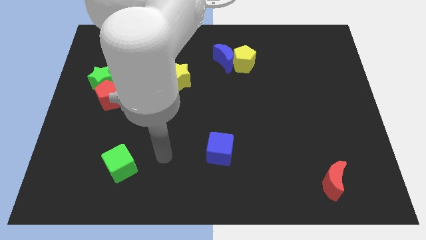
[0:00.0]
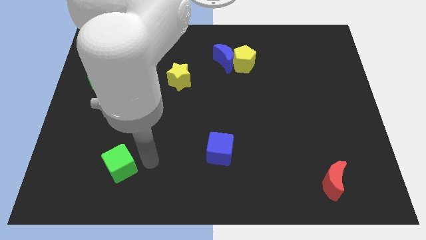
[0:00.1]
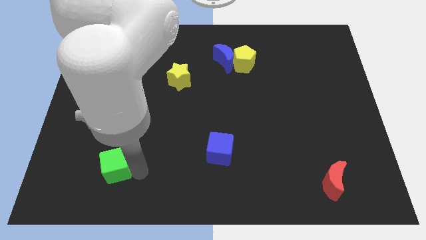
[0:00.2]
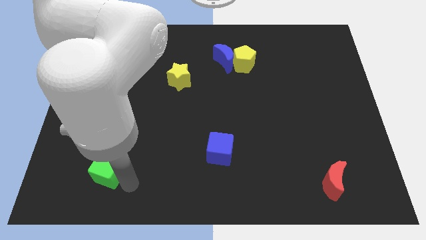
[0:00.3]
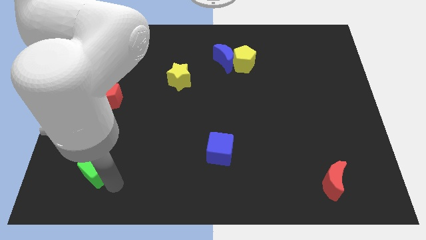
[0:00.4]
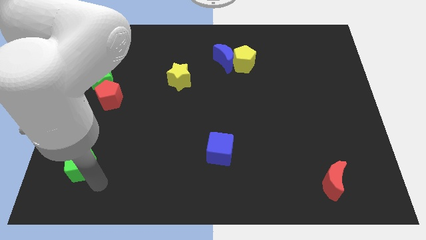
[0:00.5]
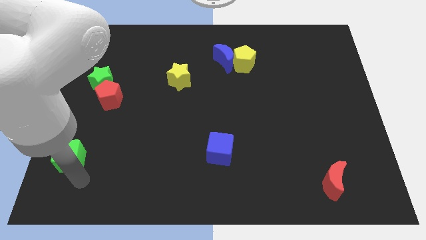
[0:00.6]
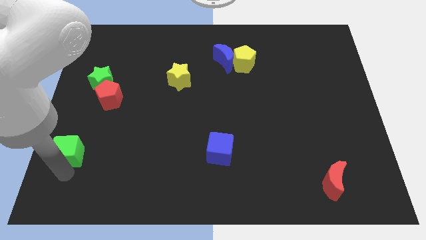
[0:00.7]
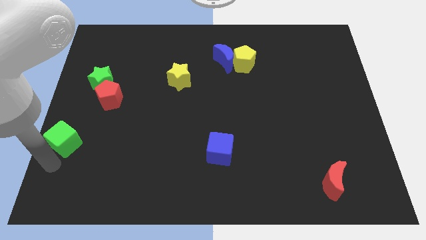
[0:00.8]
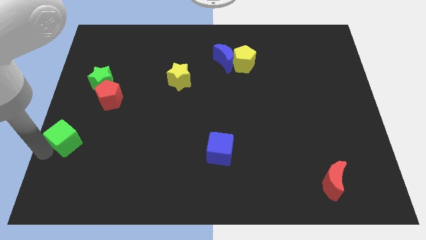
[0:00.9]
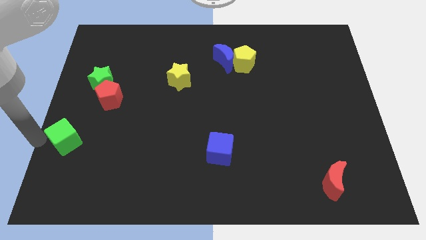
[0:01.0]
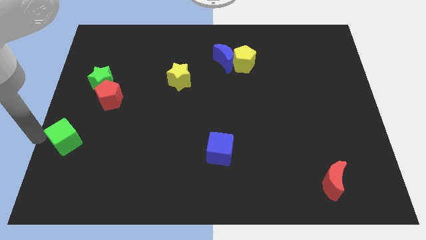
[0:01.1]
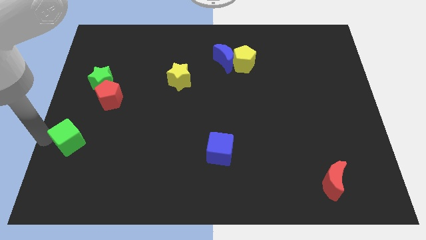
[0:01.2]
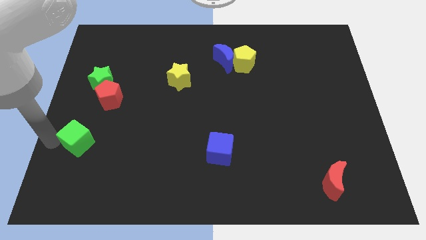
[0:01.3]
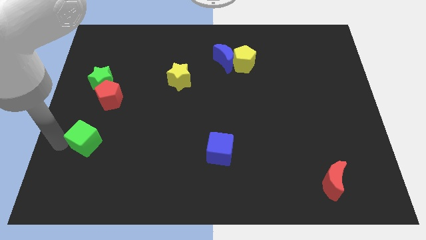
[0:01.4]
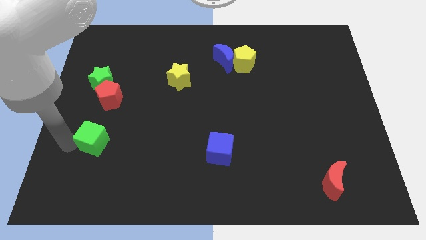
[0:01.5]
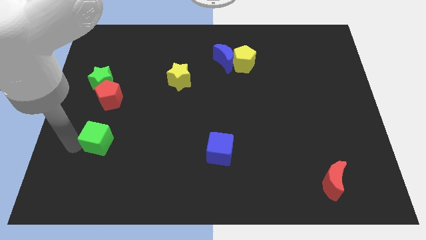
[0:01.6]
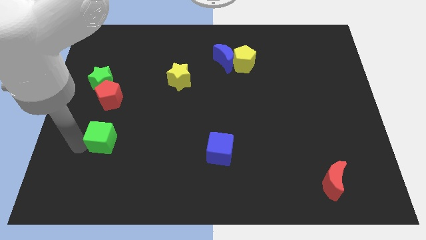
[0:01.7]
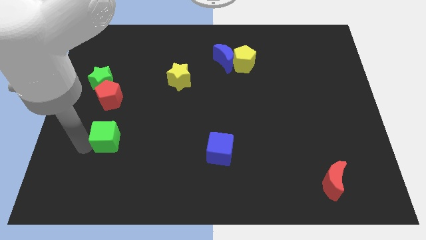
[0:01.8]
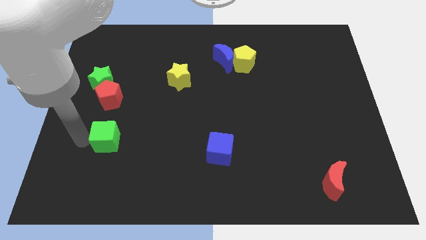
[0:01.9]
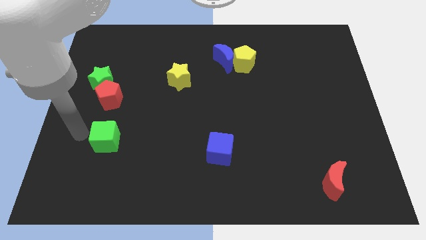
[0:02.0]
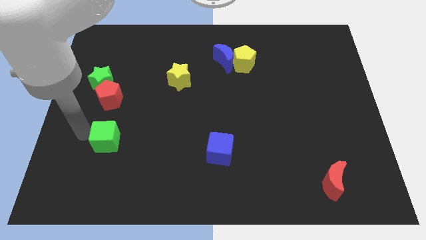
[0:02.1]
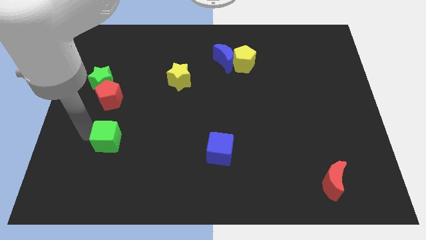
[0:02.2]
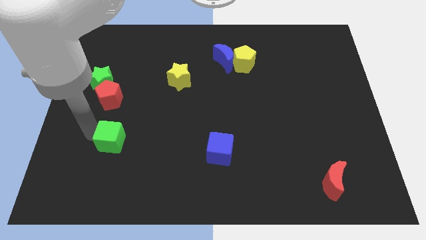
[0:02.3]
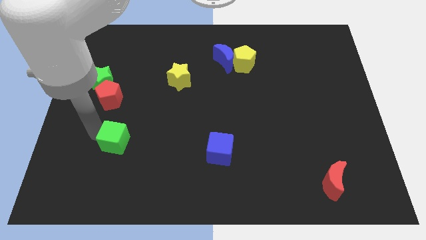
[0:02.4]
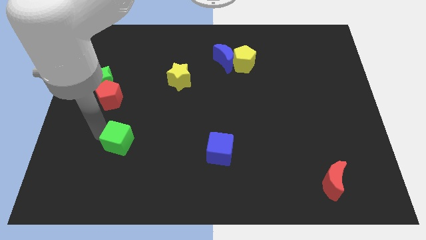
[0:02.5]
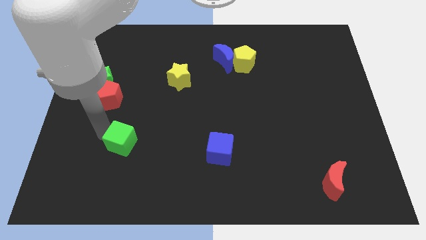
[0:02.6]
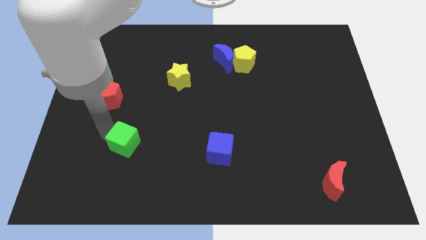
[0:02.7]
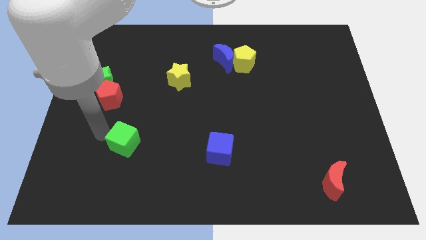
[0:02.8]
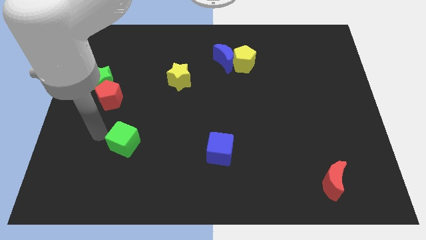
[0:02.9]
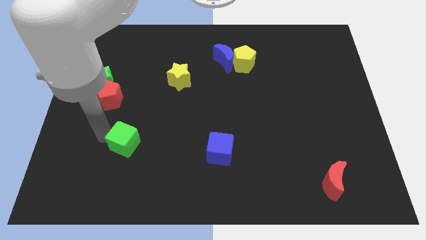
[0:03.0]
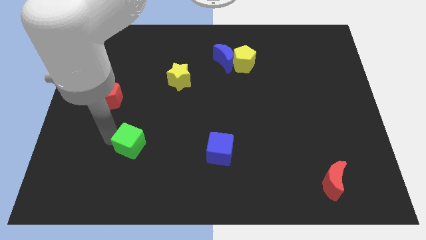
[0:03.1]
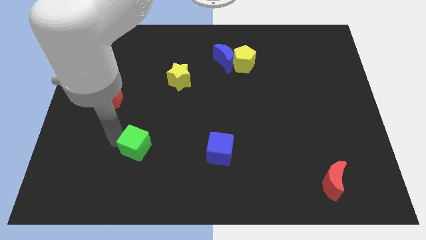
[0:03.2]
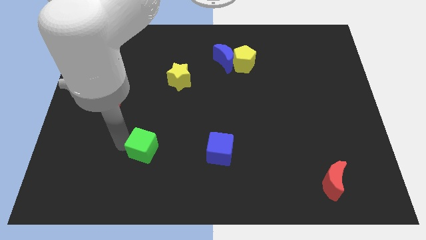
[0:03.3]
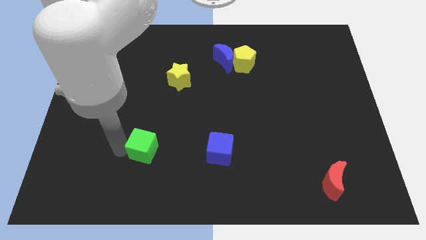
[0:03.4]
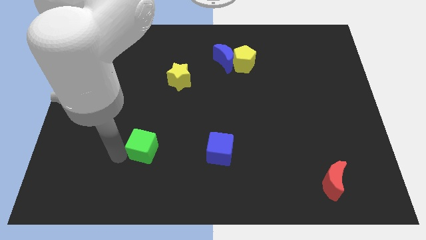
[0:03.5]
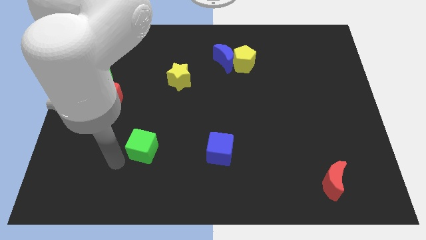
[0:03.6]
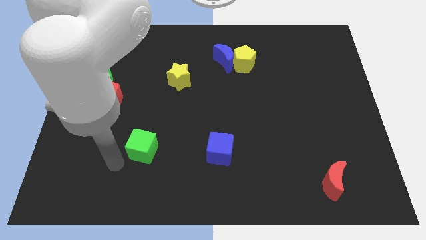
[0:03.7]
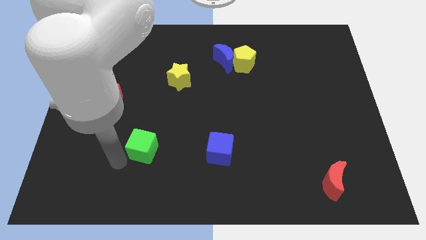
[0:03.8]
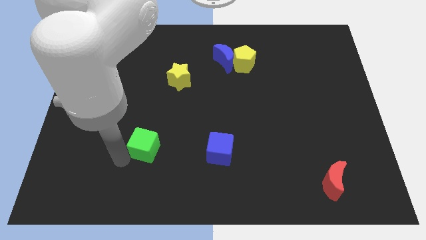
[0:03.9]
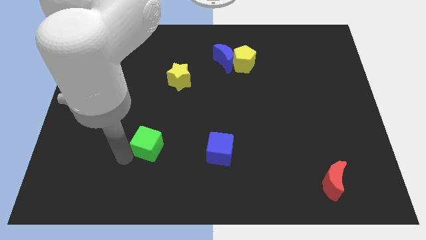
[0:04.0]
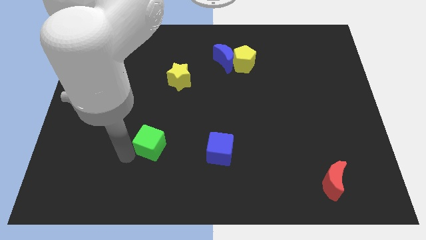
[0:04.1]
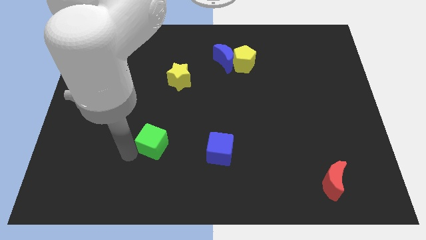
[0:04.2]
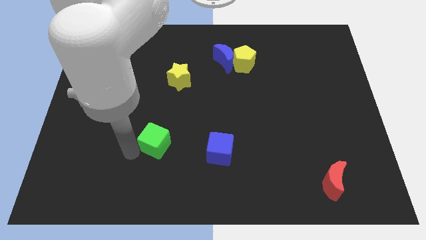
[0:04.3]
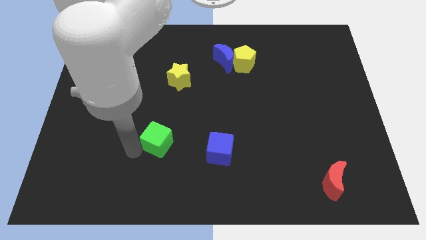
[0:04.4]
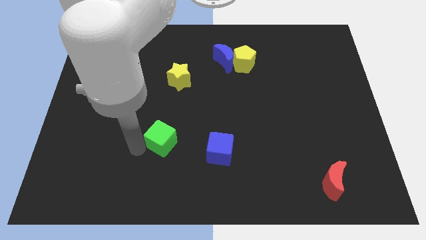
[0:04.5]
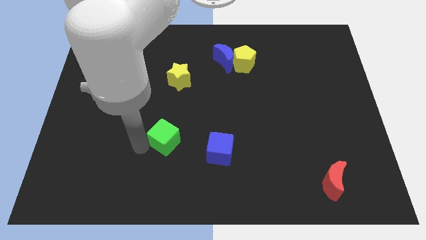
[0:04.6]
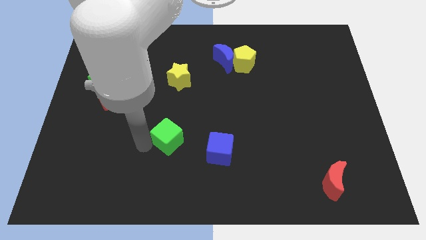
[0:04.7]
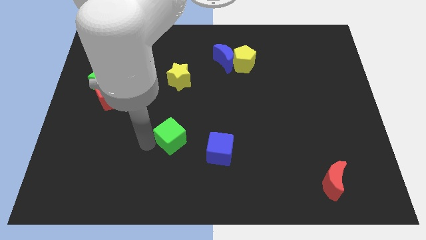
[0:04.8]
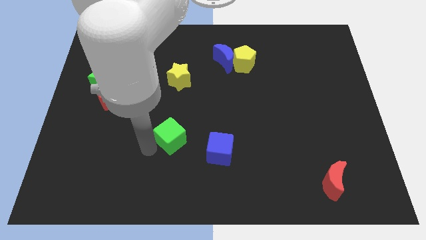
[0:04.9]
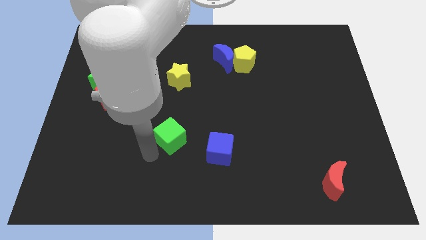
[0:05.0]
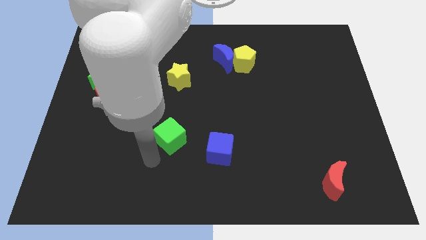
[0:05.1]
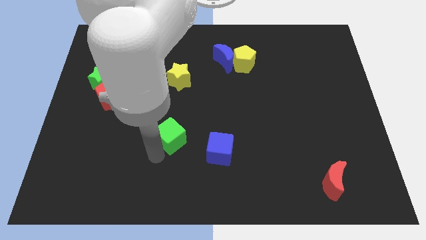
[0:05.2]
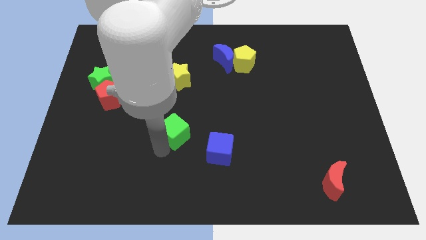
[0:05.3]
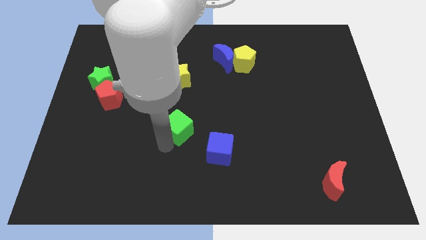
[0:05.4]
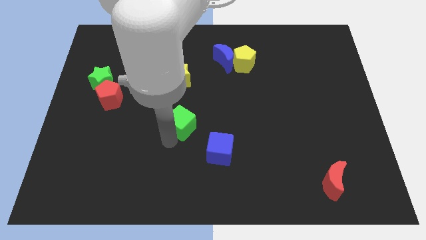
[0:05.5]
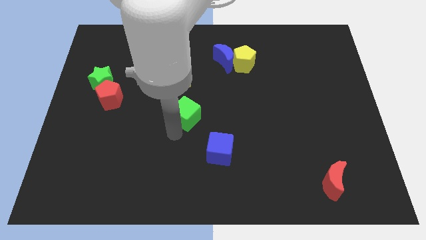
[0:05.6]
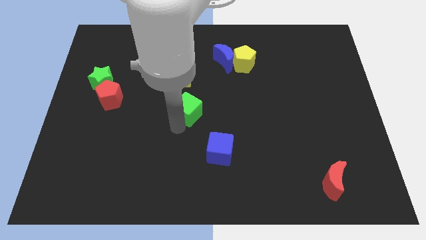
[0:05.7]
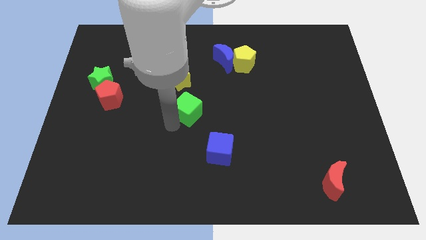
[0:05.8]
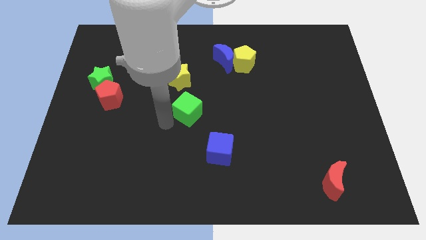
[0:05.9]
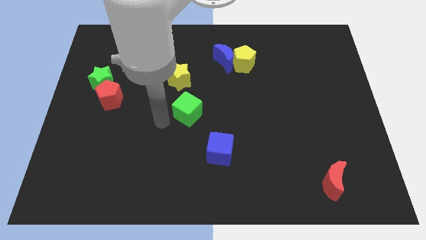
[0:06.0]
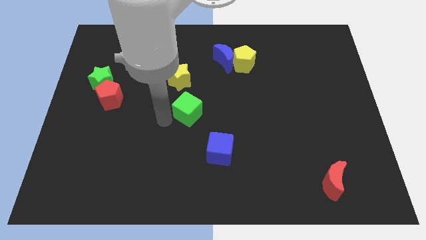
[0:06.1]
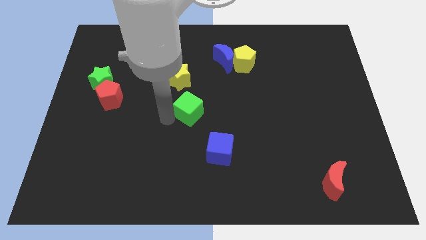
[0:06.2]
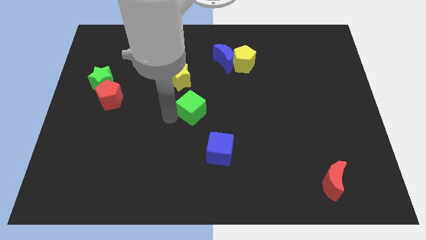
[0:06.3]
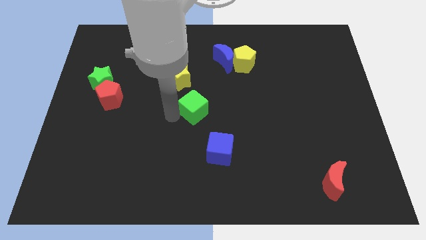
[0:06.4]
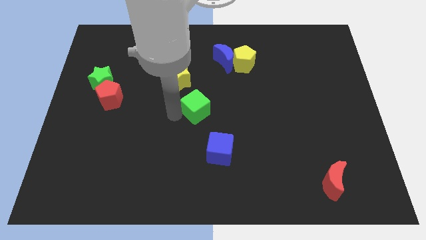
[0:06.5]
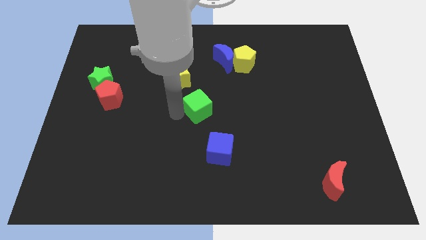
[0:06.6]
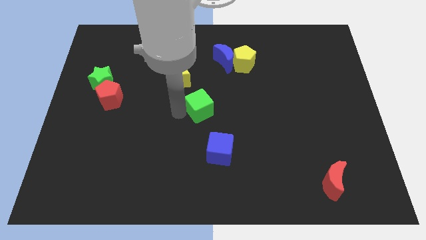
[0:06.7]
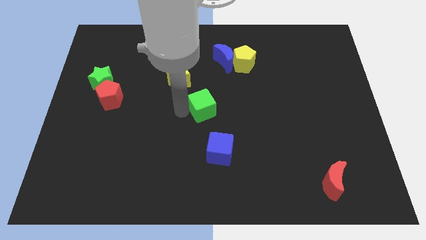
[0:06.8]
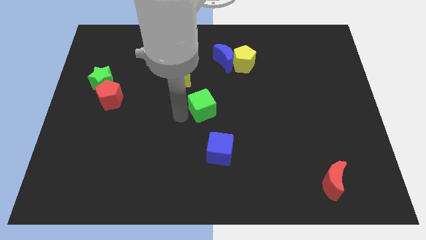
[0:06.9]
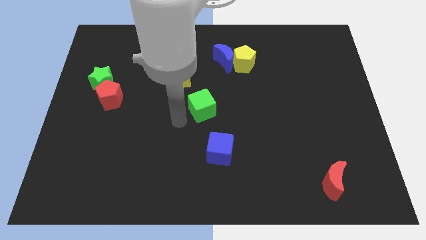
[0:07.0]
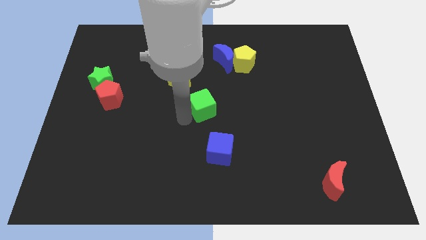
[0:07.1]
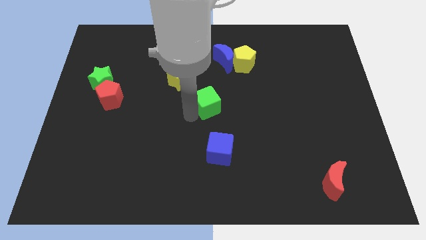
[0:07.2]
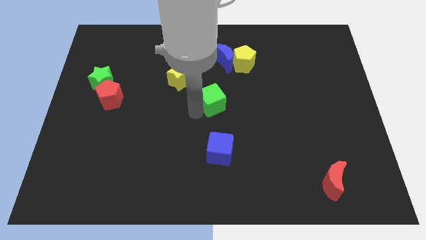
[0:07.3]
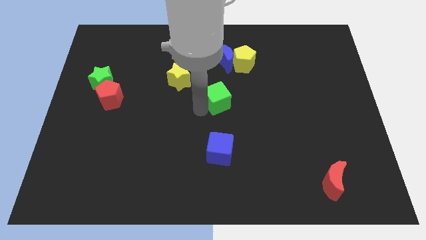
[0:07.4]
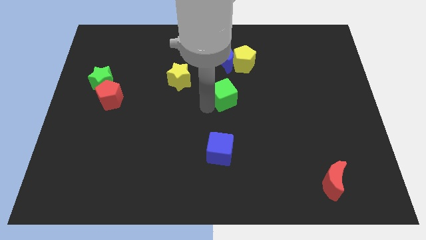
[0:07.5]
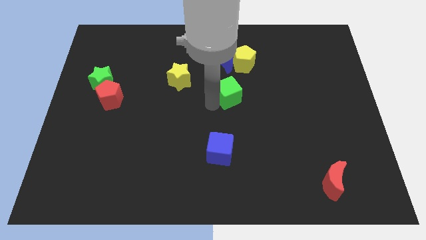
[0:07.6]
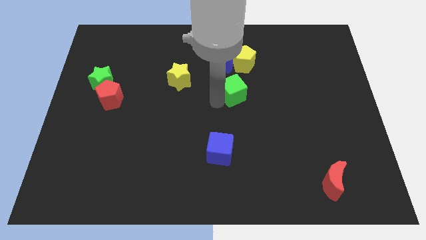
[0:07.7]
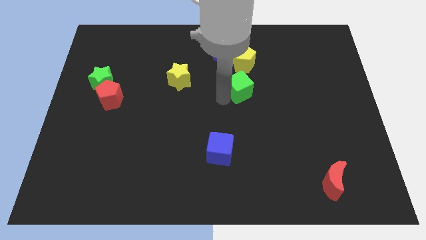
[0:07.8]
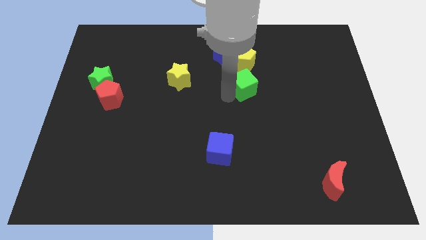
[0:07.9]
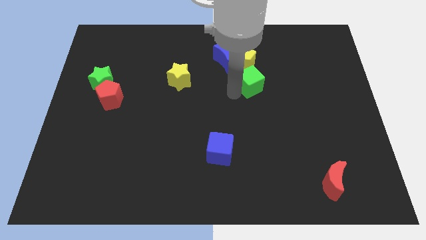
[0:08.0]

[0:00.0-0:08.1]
push the green cube to the bottom right of the yellow pentagon
